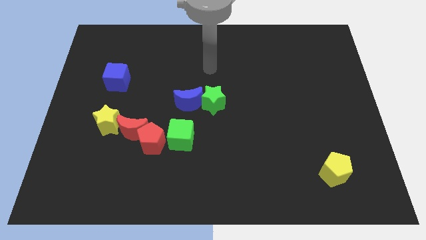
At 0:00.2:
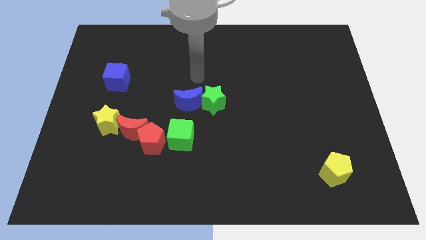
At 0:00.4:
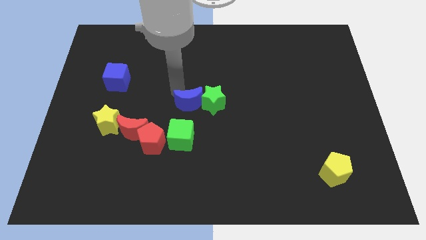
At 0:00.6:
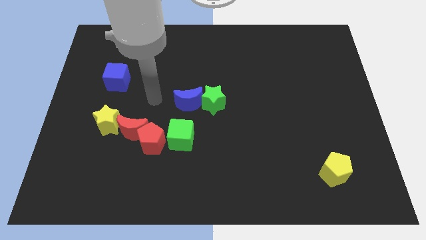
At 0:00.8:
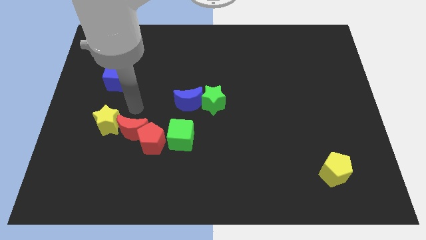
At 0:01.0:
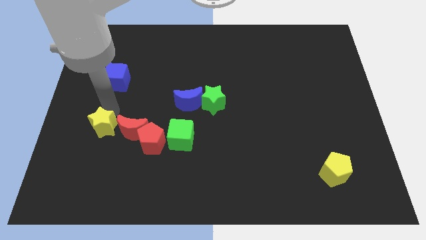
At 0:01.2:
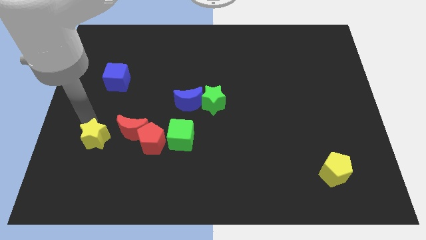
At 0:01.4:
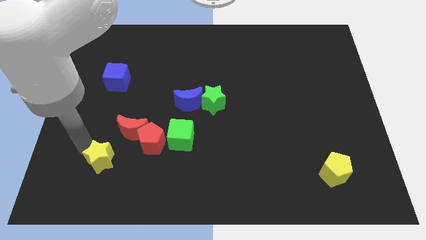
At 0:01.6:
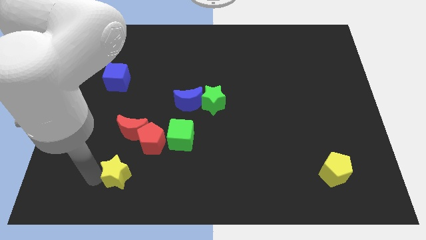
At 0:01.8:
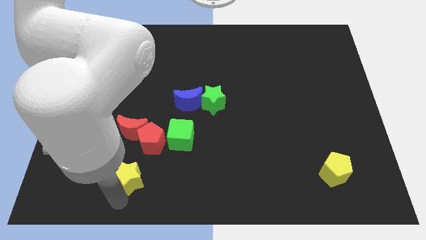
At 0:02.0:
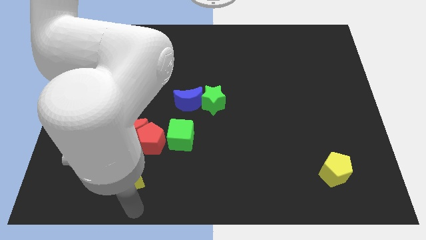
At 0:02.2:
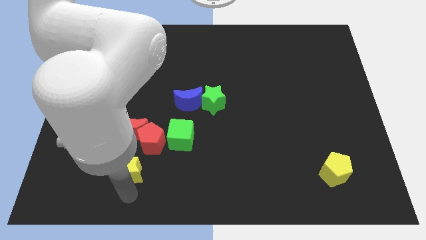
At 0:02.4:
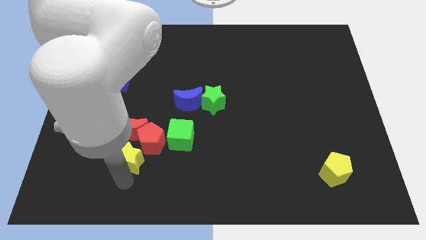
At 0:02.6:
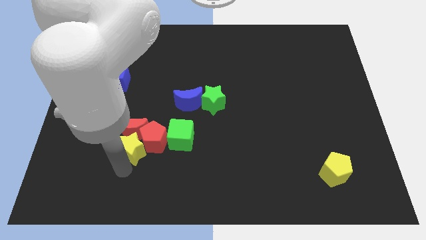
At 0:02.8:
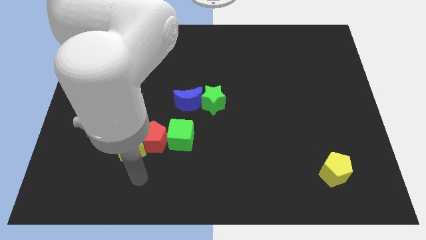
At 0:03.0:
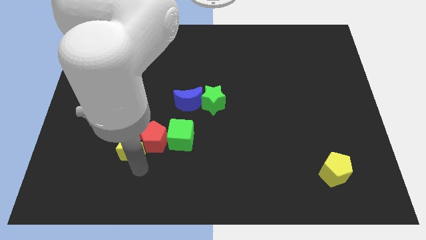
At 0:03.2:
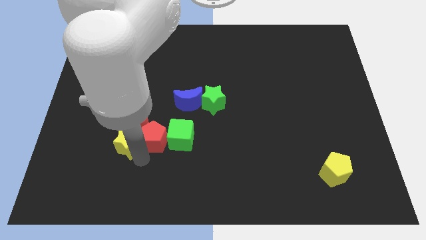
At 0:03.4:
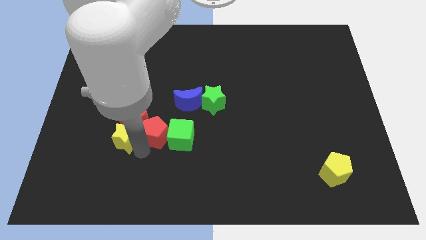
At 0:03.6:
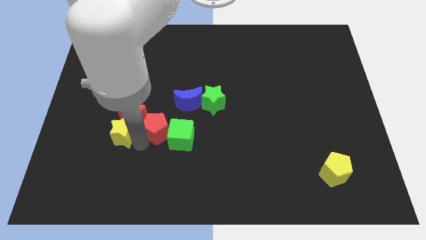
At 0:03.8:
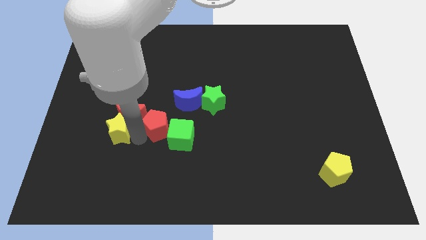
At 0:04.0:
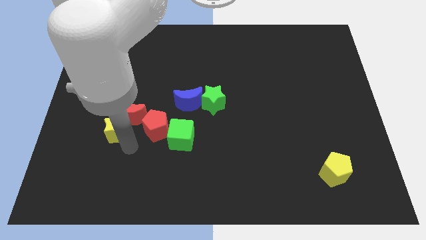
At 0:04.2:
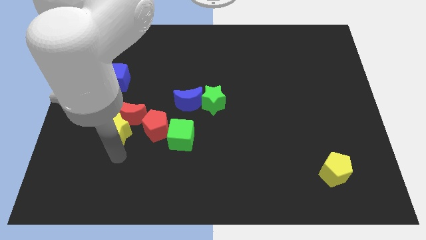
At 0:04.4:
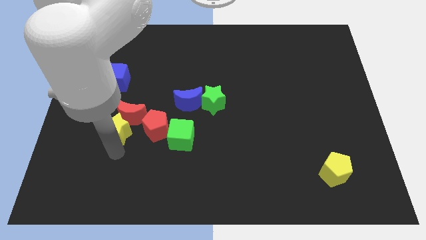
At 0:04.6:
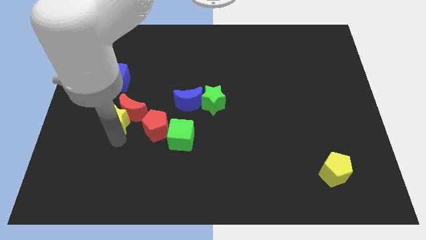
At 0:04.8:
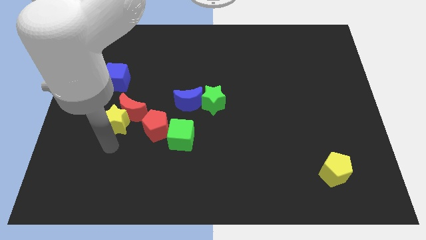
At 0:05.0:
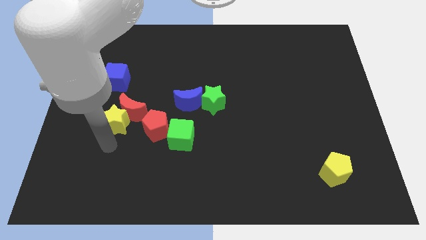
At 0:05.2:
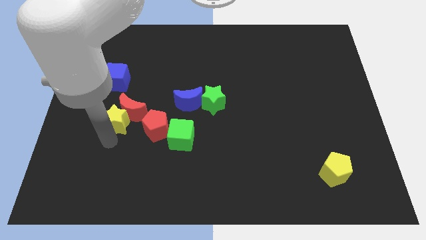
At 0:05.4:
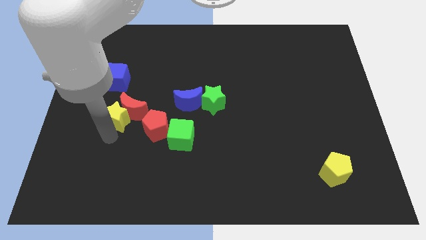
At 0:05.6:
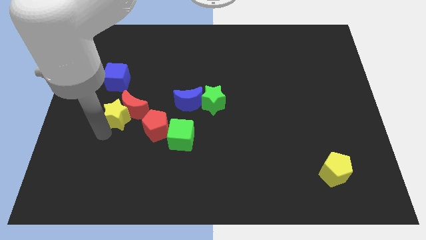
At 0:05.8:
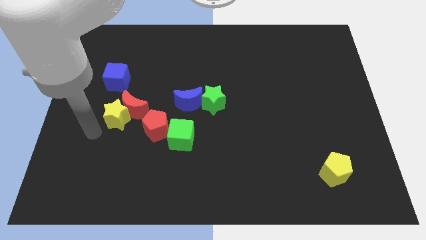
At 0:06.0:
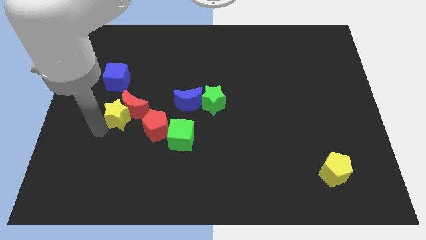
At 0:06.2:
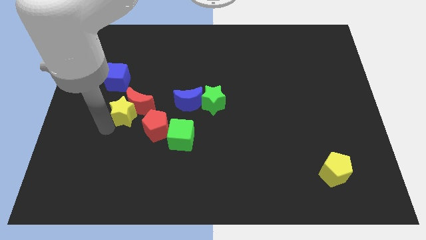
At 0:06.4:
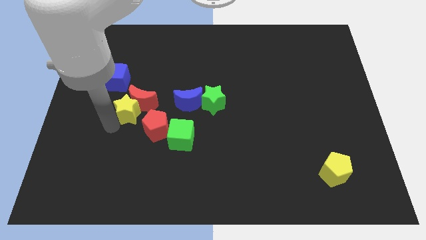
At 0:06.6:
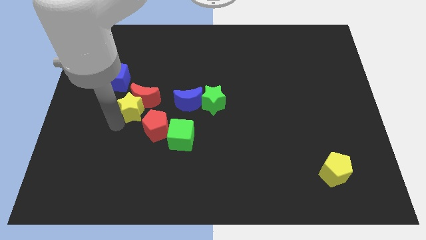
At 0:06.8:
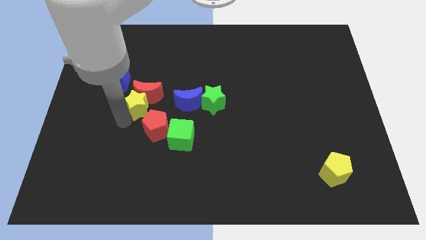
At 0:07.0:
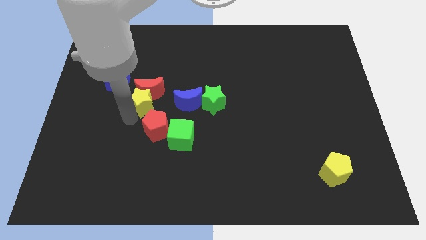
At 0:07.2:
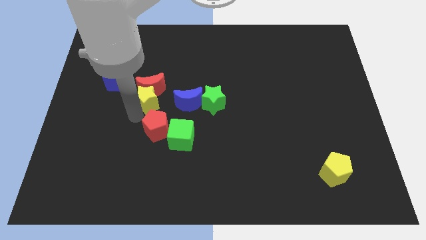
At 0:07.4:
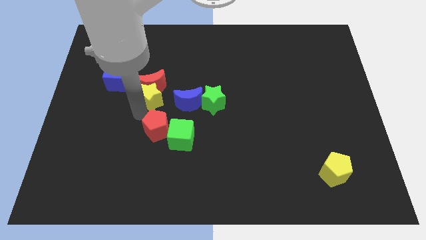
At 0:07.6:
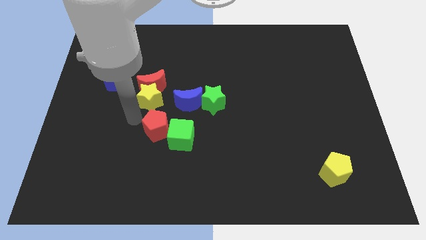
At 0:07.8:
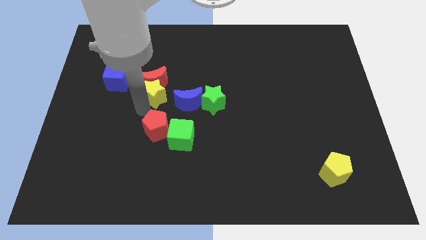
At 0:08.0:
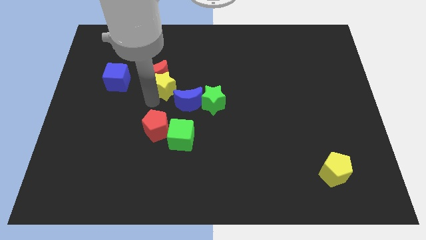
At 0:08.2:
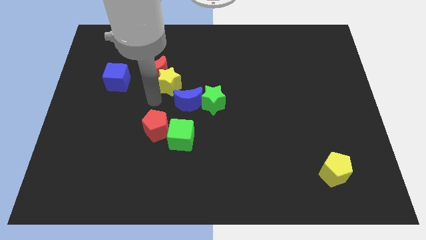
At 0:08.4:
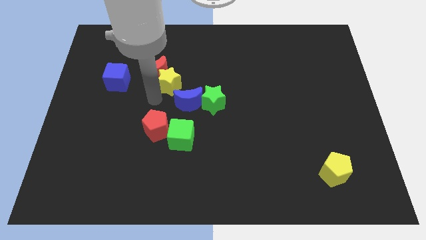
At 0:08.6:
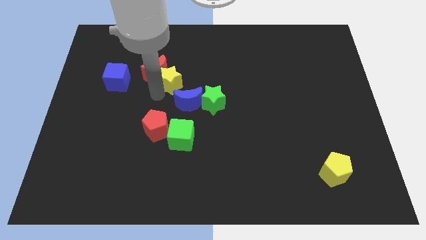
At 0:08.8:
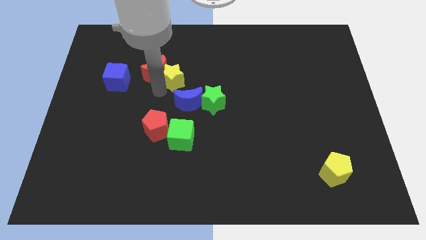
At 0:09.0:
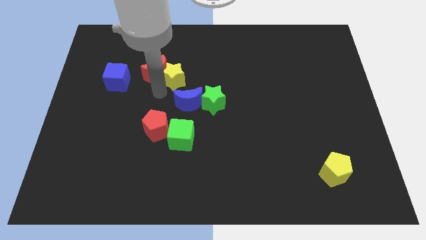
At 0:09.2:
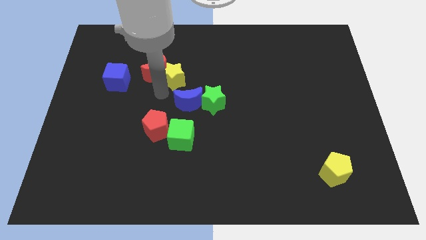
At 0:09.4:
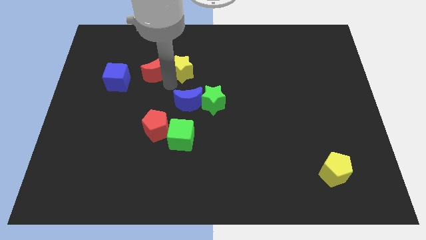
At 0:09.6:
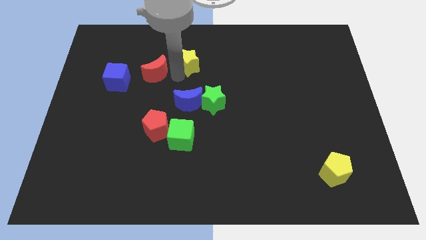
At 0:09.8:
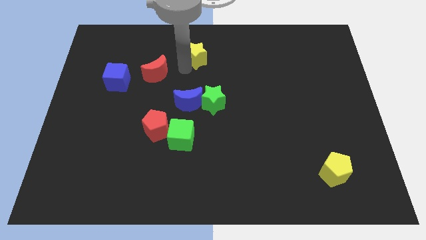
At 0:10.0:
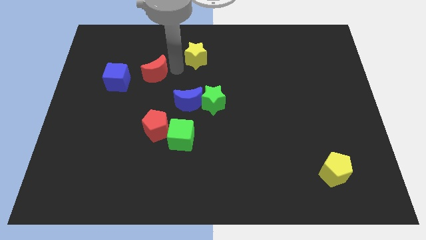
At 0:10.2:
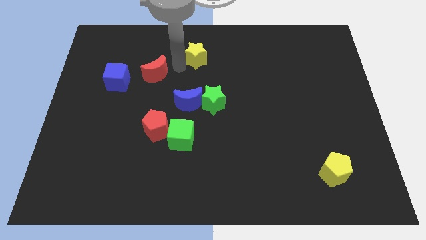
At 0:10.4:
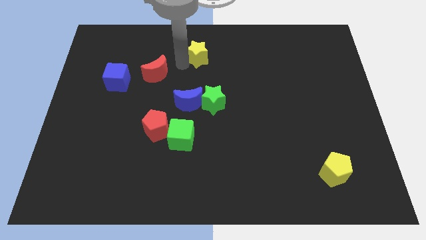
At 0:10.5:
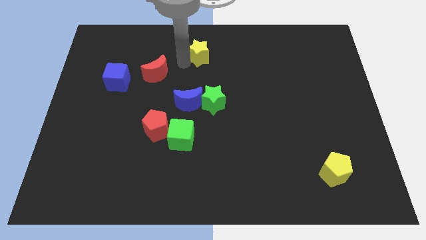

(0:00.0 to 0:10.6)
put the yellow star to the top side
